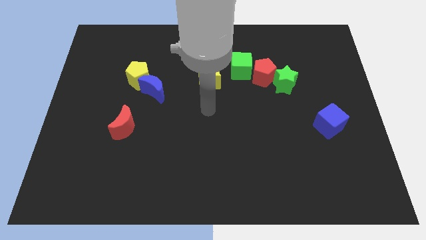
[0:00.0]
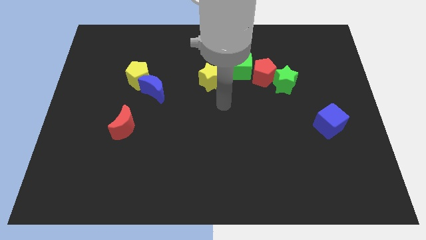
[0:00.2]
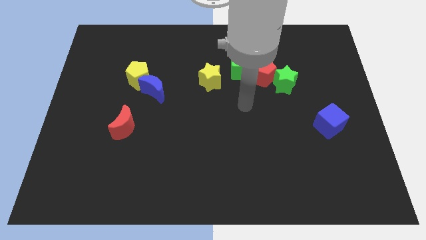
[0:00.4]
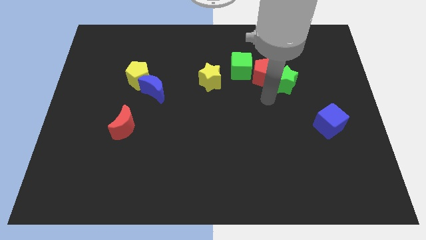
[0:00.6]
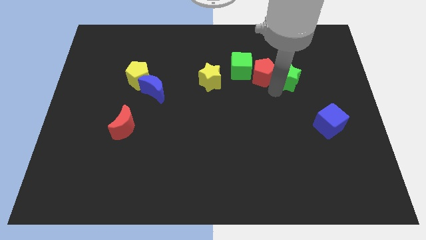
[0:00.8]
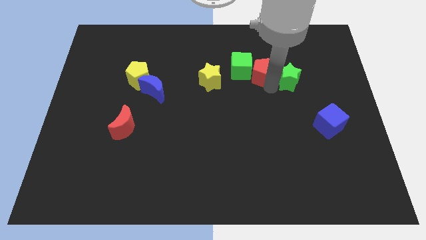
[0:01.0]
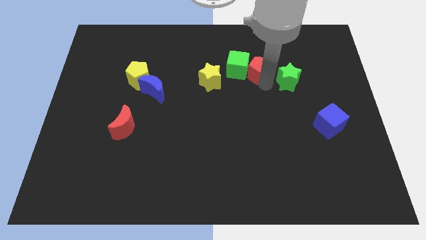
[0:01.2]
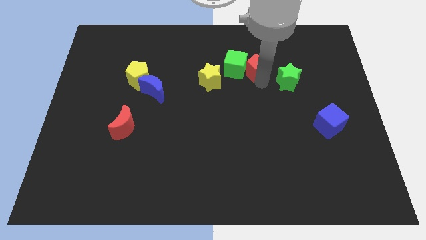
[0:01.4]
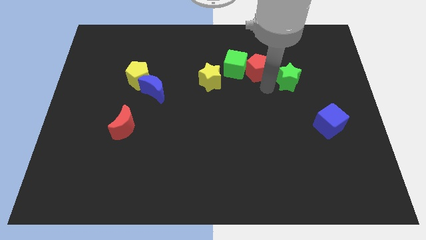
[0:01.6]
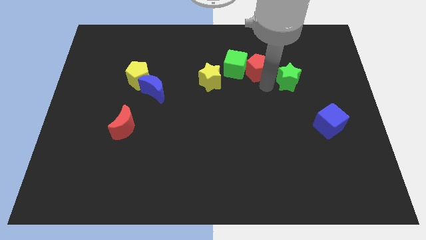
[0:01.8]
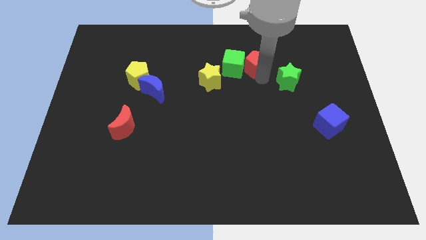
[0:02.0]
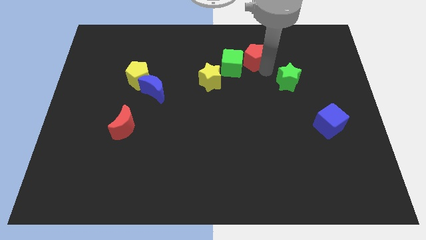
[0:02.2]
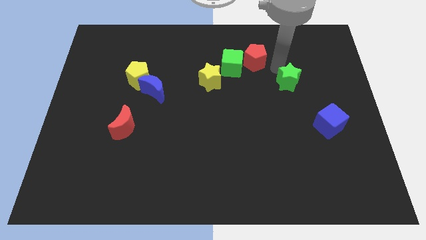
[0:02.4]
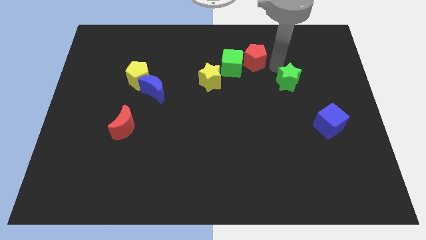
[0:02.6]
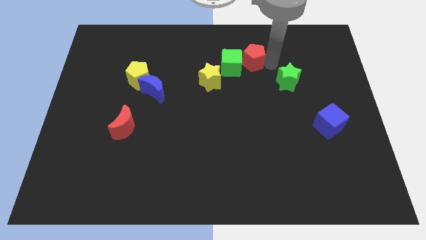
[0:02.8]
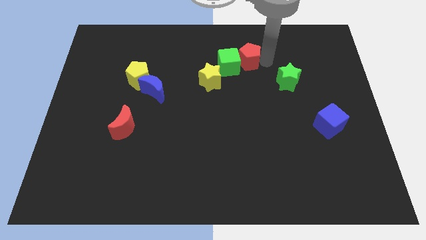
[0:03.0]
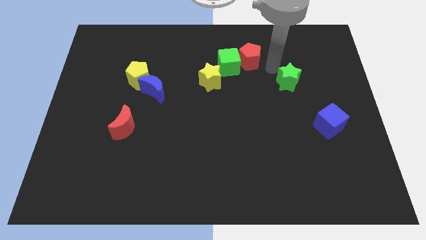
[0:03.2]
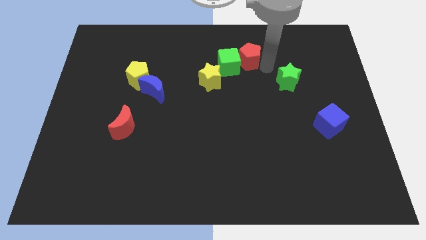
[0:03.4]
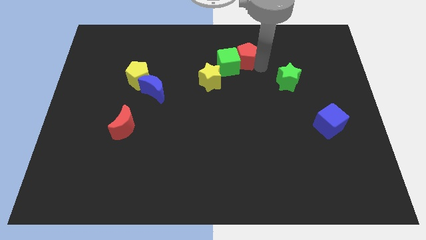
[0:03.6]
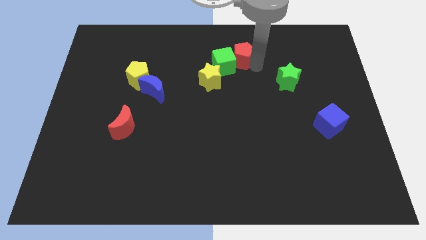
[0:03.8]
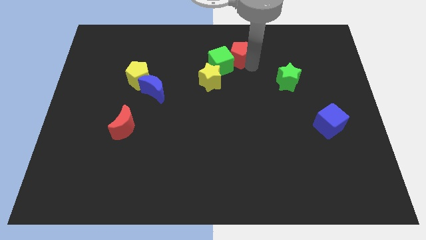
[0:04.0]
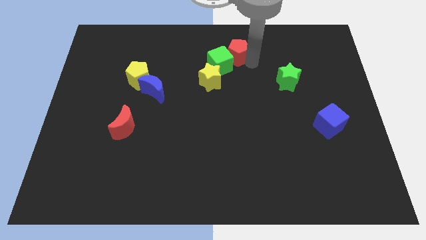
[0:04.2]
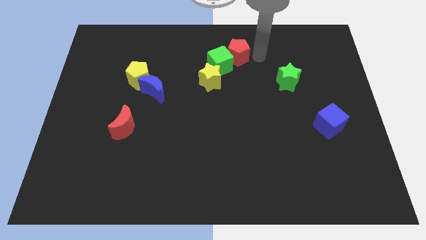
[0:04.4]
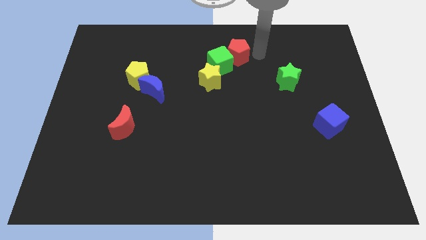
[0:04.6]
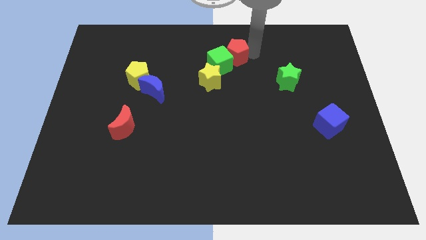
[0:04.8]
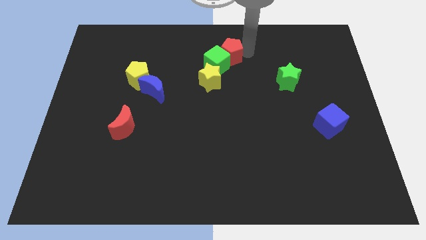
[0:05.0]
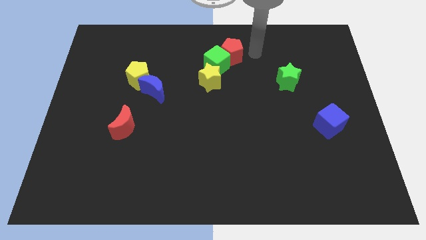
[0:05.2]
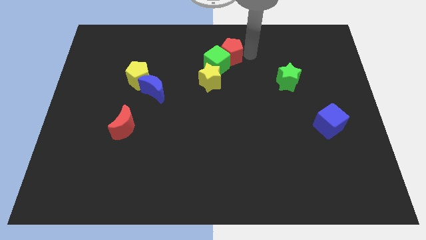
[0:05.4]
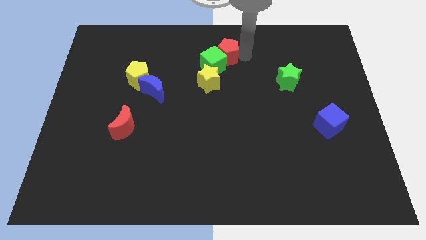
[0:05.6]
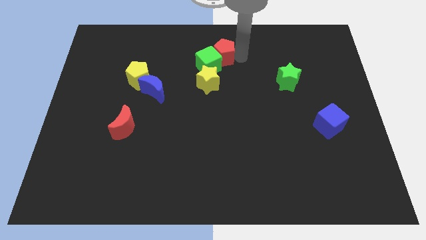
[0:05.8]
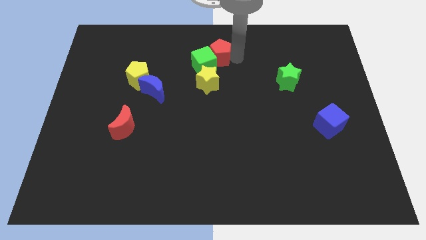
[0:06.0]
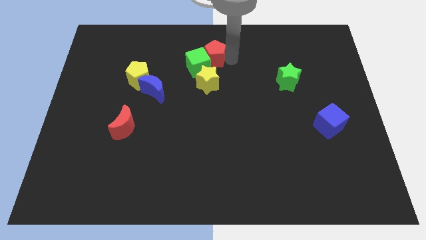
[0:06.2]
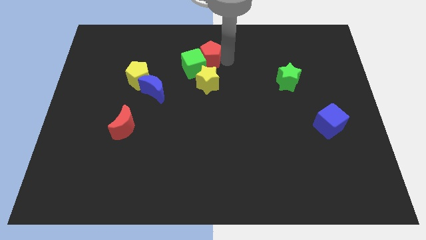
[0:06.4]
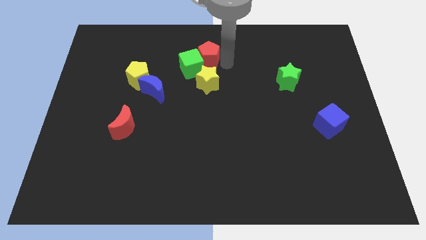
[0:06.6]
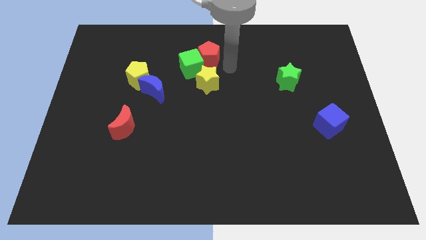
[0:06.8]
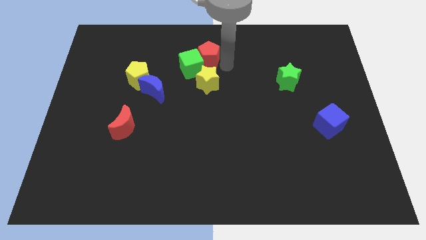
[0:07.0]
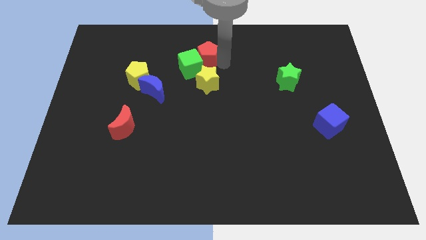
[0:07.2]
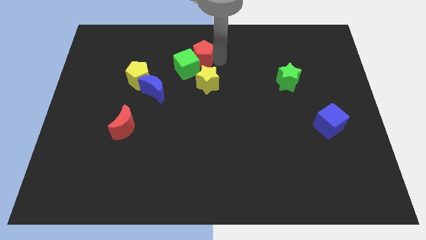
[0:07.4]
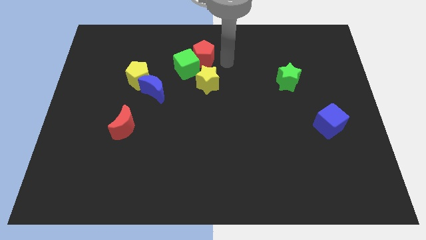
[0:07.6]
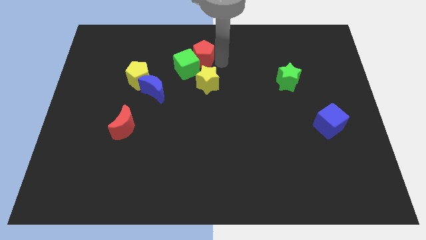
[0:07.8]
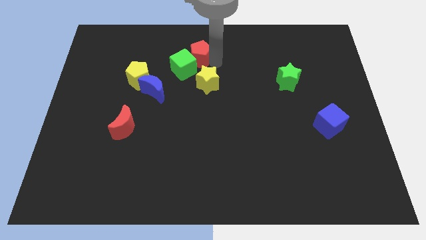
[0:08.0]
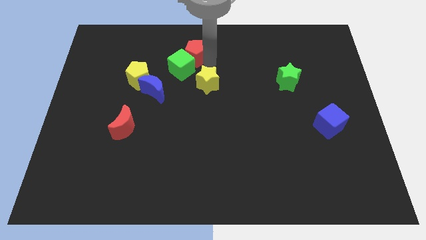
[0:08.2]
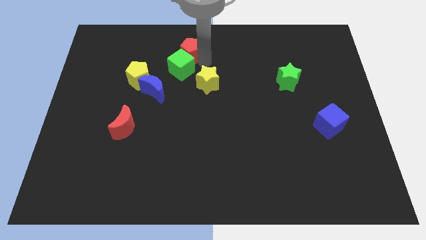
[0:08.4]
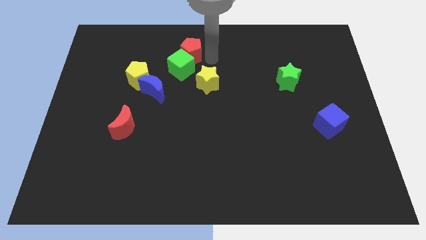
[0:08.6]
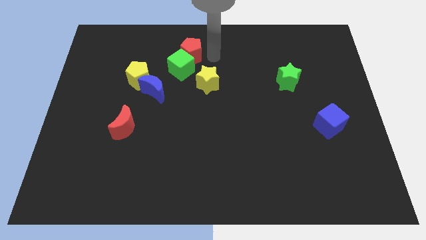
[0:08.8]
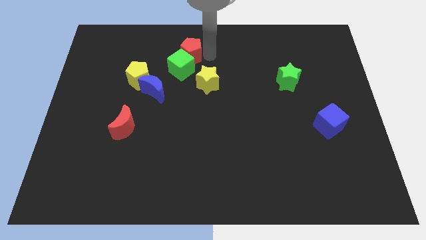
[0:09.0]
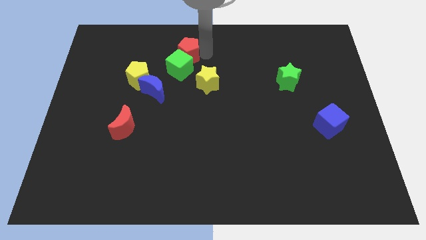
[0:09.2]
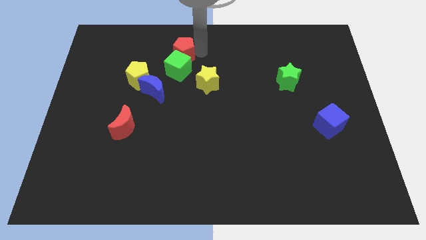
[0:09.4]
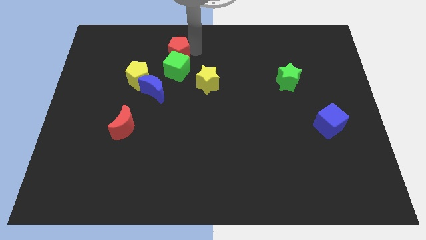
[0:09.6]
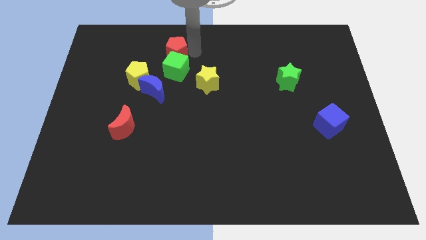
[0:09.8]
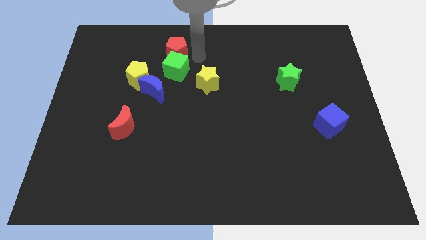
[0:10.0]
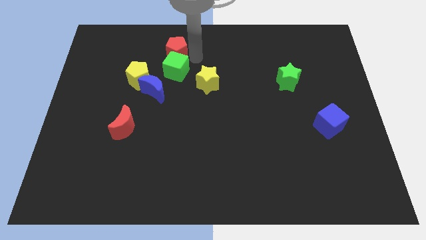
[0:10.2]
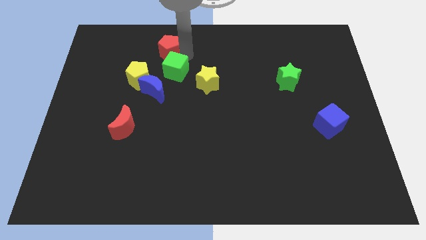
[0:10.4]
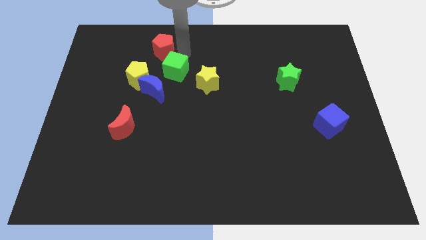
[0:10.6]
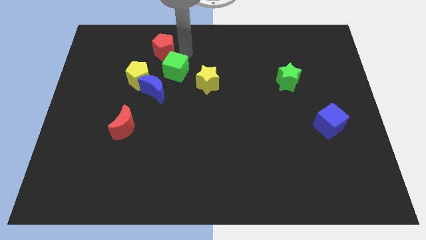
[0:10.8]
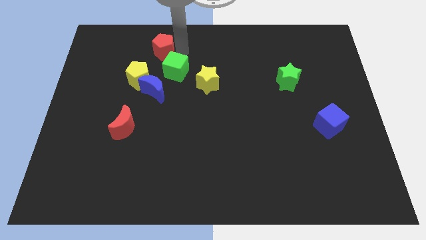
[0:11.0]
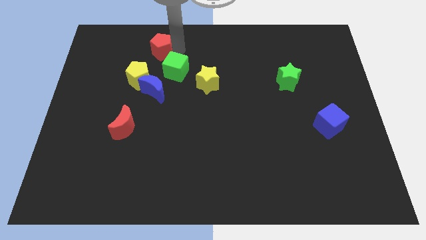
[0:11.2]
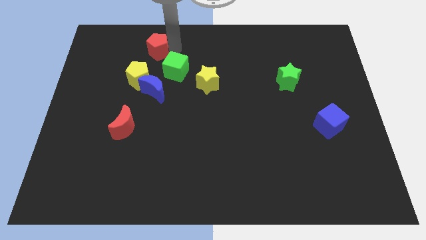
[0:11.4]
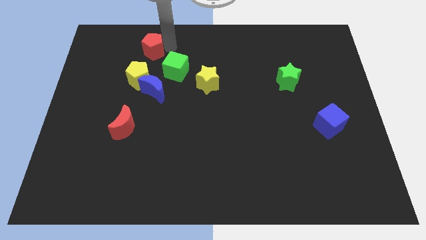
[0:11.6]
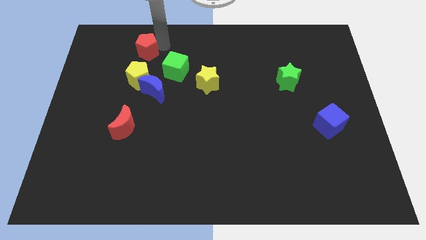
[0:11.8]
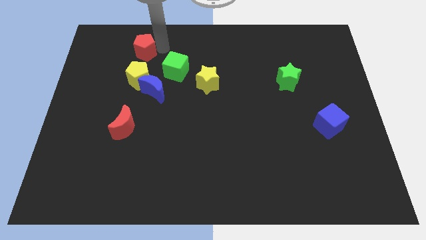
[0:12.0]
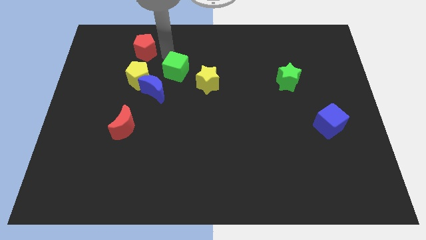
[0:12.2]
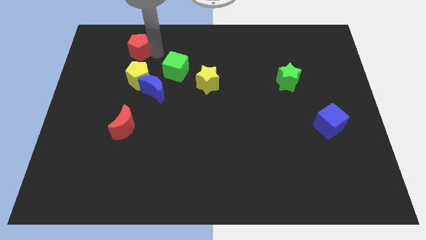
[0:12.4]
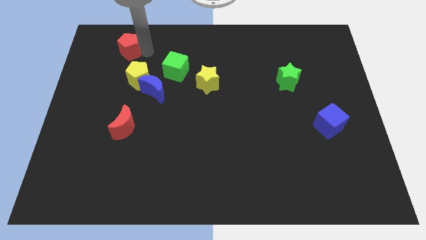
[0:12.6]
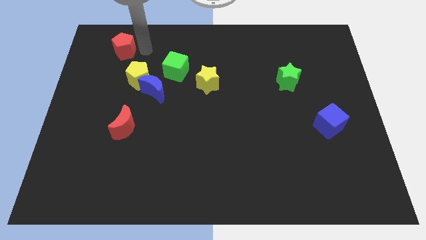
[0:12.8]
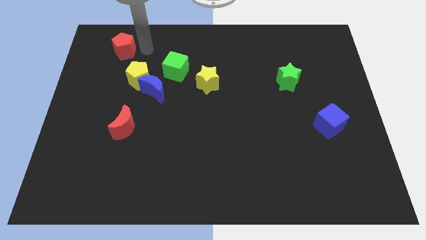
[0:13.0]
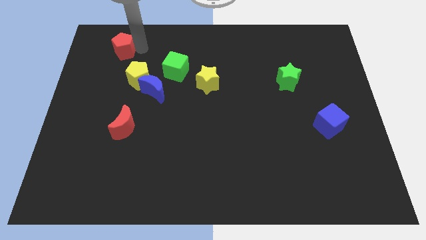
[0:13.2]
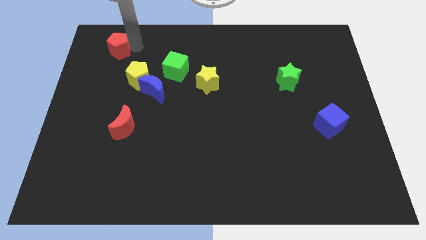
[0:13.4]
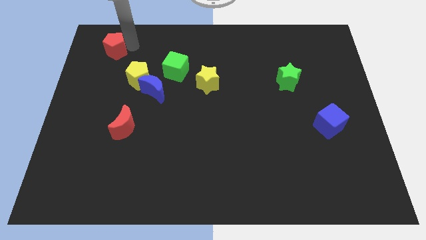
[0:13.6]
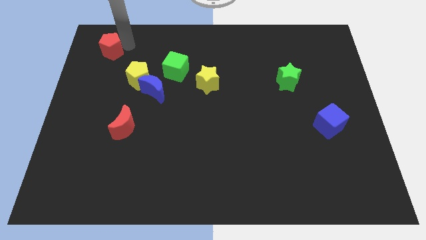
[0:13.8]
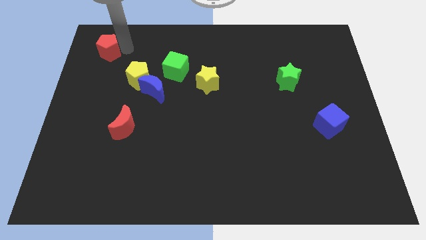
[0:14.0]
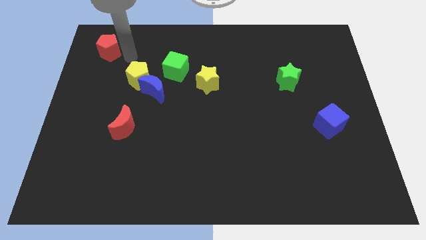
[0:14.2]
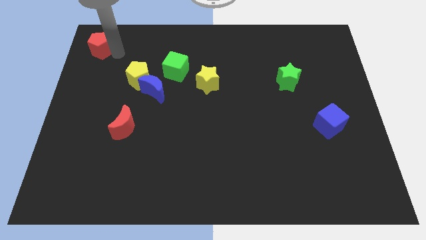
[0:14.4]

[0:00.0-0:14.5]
move the red pentagon to the upper left corner
